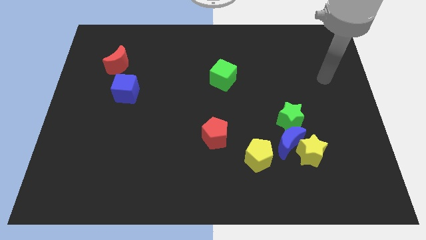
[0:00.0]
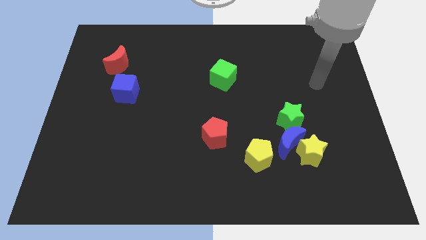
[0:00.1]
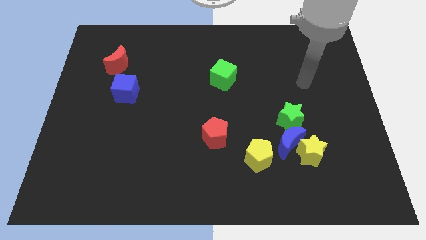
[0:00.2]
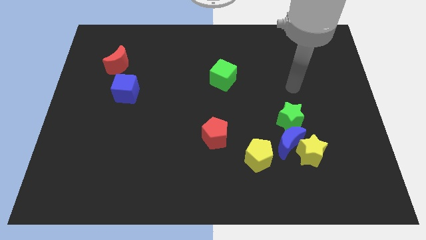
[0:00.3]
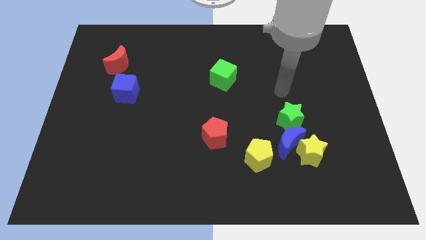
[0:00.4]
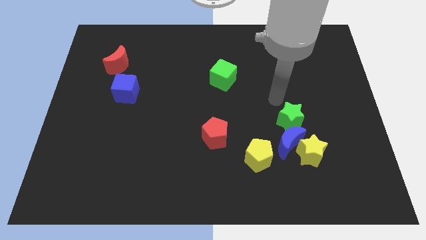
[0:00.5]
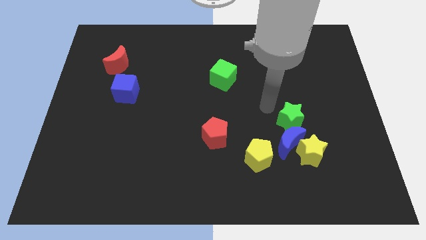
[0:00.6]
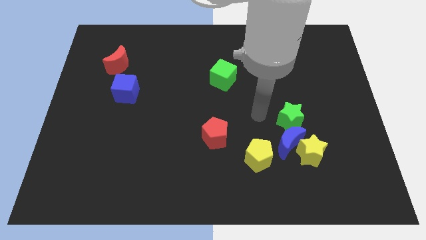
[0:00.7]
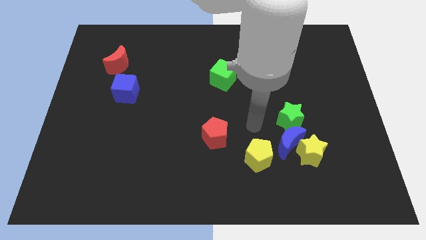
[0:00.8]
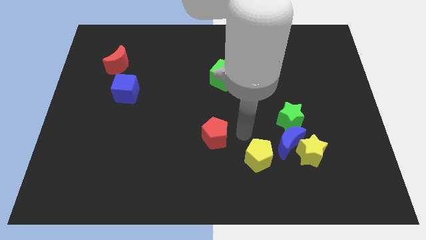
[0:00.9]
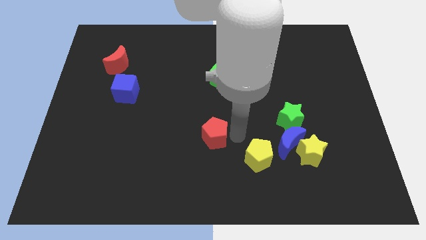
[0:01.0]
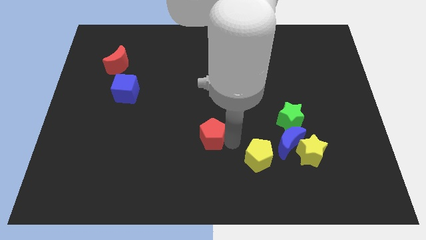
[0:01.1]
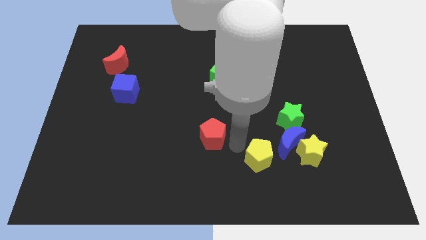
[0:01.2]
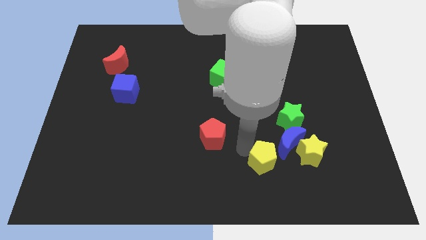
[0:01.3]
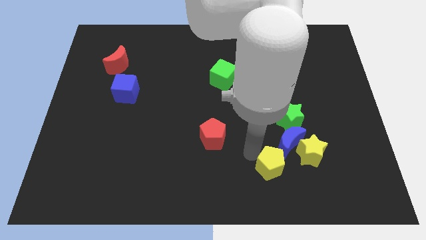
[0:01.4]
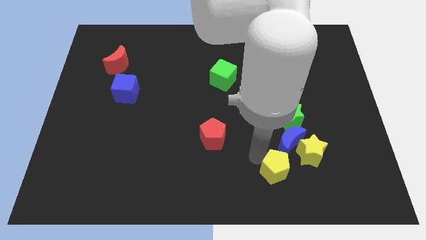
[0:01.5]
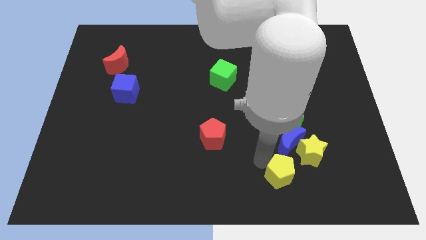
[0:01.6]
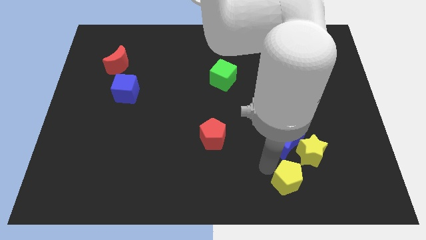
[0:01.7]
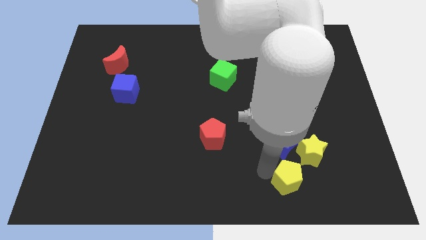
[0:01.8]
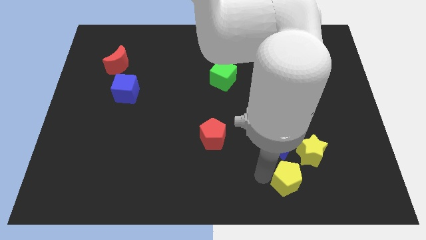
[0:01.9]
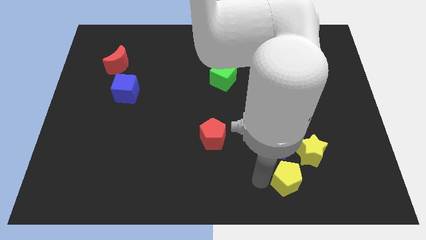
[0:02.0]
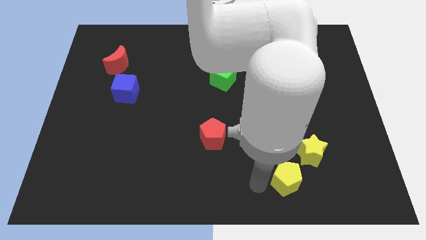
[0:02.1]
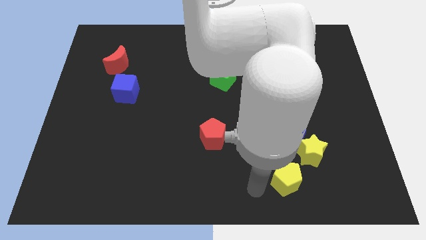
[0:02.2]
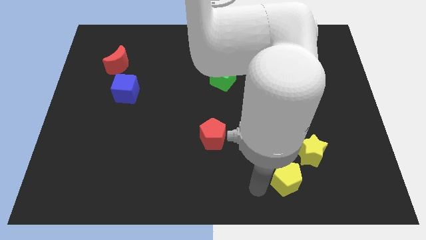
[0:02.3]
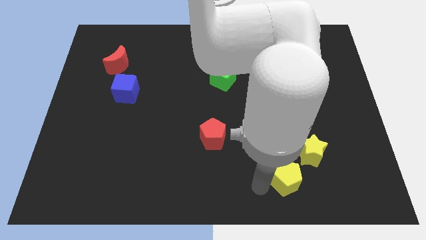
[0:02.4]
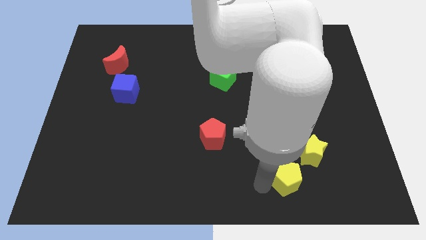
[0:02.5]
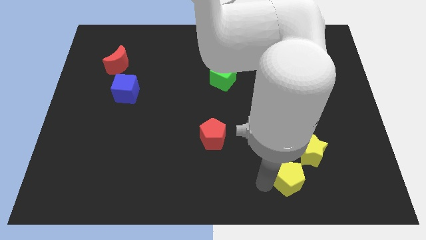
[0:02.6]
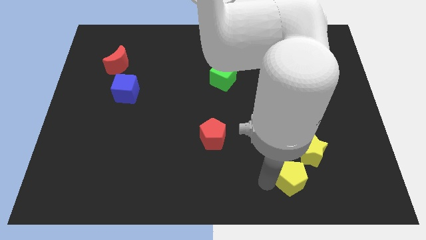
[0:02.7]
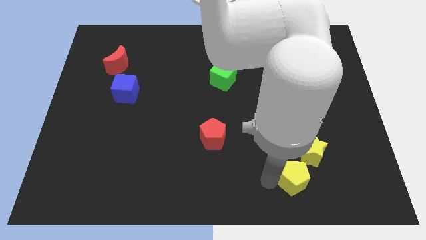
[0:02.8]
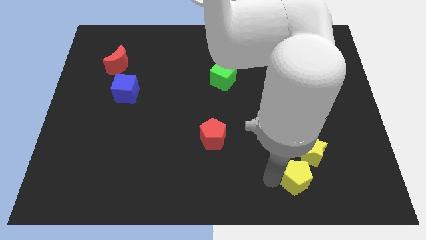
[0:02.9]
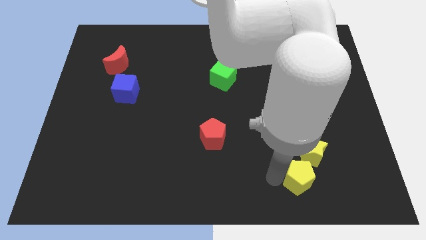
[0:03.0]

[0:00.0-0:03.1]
slightly move the yellow pentagon to the right

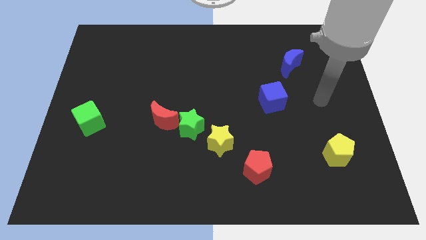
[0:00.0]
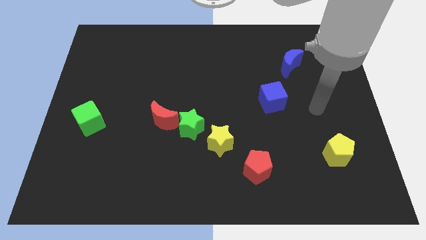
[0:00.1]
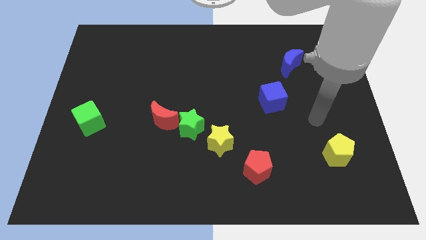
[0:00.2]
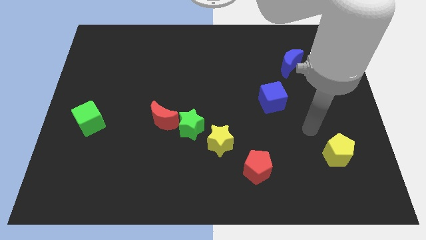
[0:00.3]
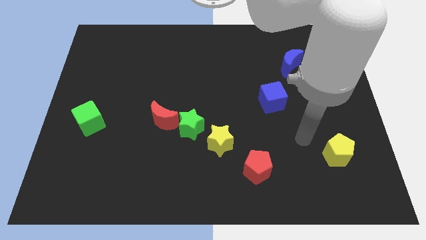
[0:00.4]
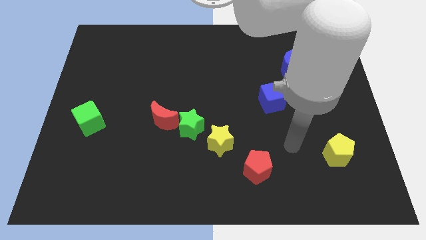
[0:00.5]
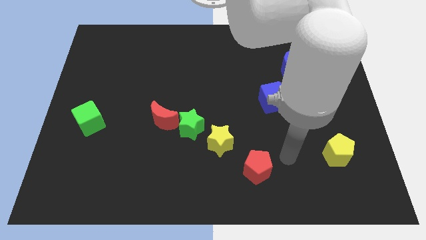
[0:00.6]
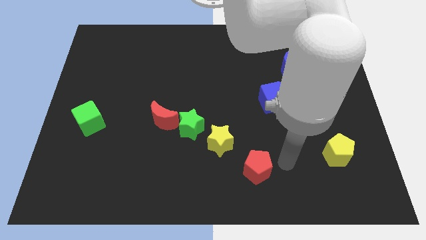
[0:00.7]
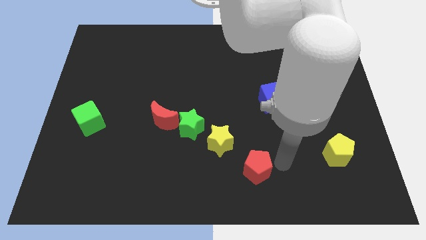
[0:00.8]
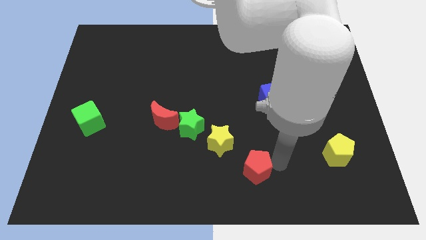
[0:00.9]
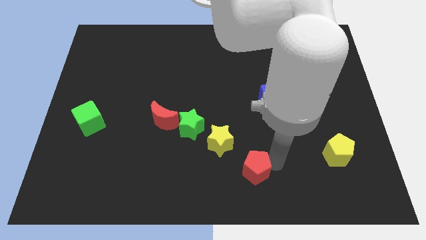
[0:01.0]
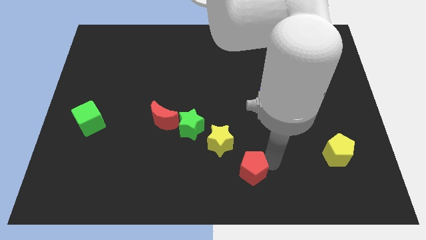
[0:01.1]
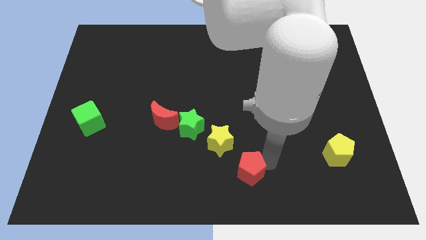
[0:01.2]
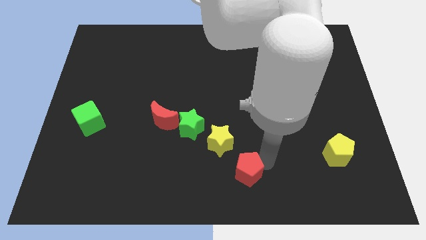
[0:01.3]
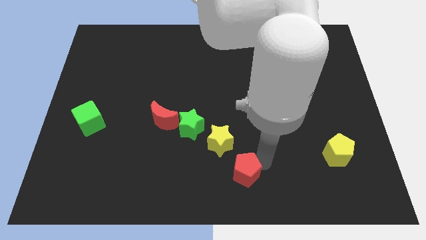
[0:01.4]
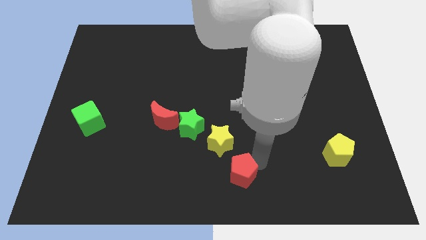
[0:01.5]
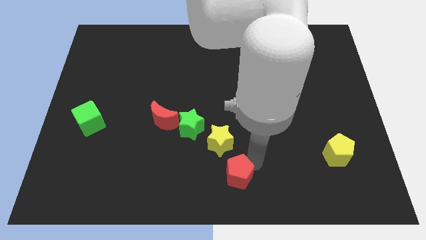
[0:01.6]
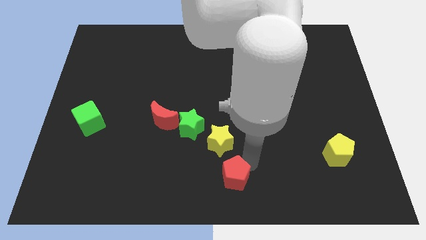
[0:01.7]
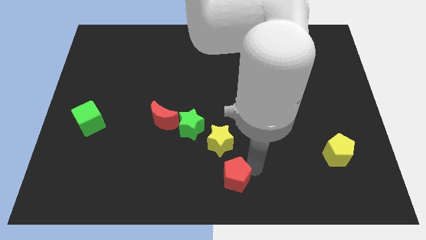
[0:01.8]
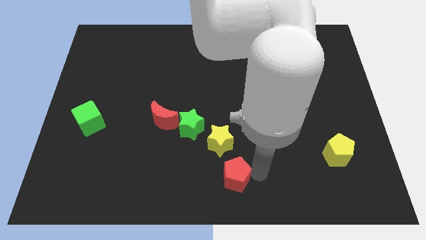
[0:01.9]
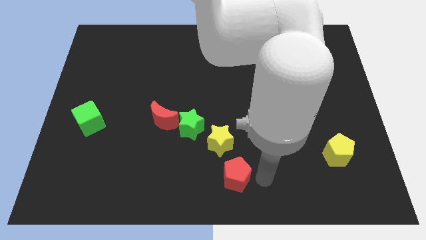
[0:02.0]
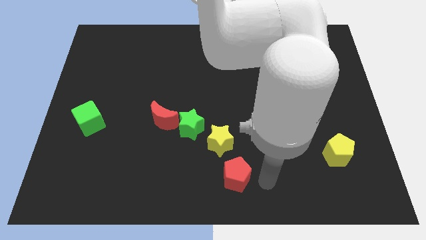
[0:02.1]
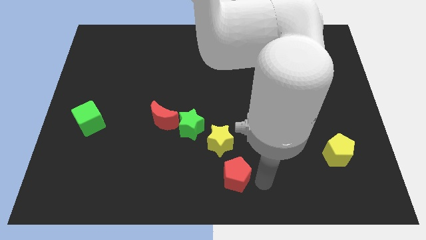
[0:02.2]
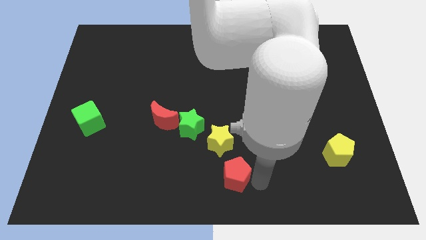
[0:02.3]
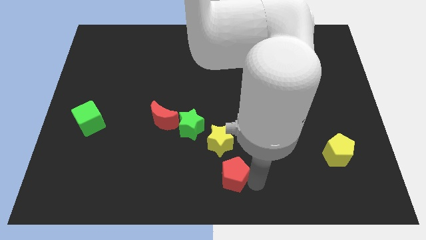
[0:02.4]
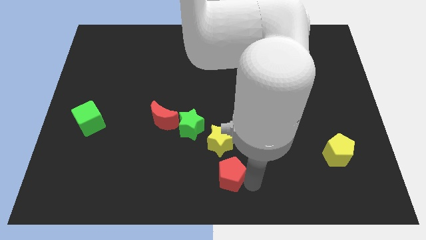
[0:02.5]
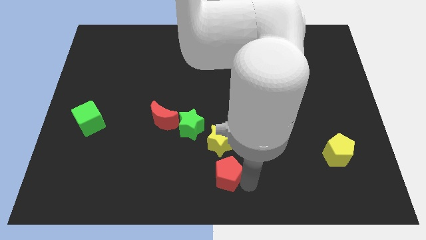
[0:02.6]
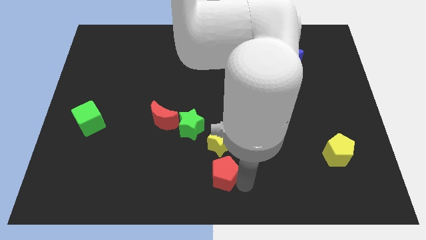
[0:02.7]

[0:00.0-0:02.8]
slightly slide the red pentagon left

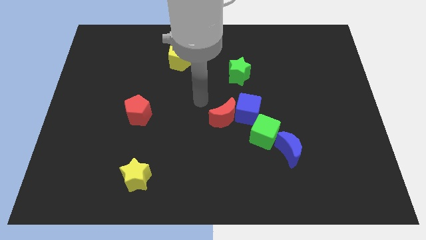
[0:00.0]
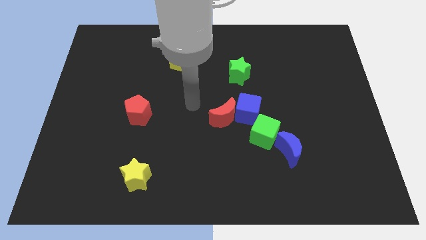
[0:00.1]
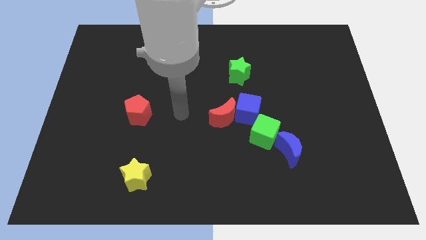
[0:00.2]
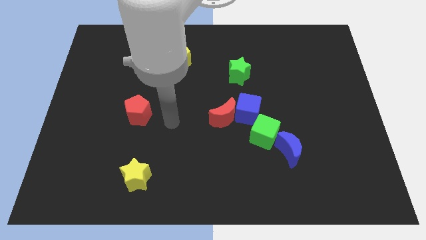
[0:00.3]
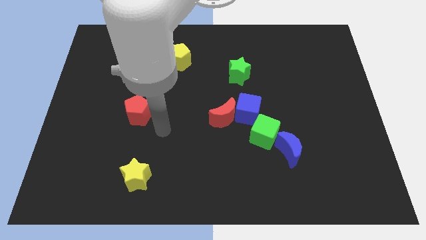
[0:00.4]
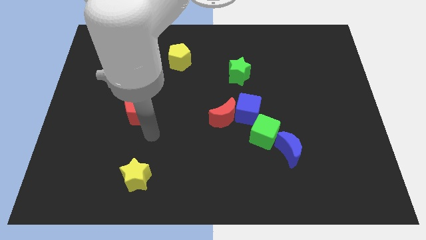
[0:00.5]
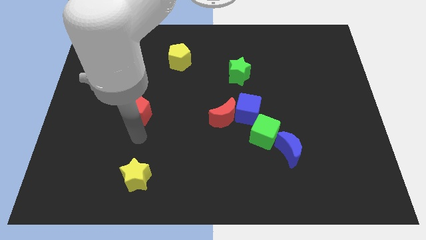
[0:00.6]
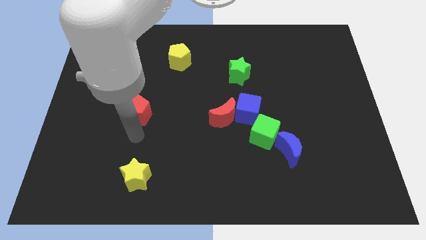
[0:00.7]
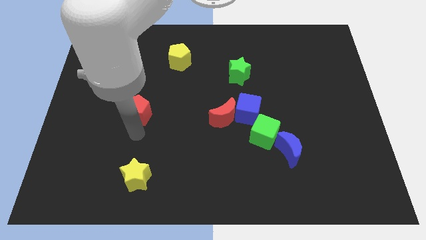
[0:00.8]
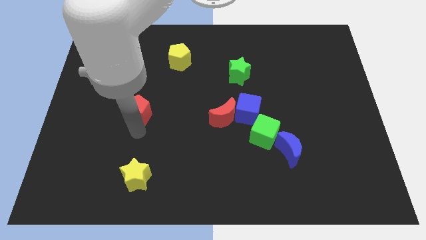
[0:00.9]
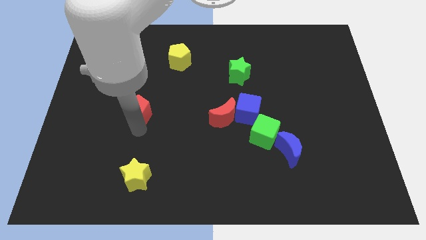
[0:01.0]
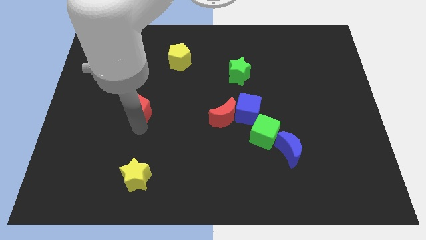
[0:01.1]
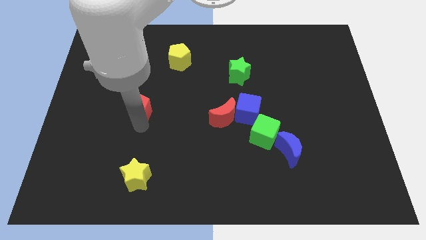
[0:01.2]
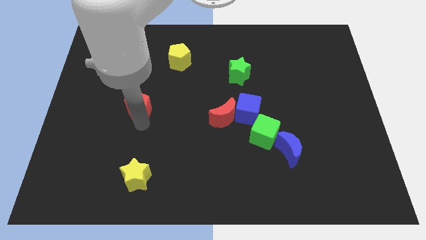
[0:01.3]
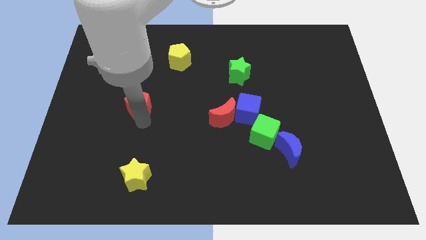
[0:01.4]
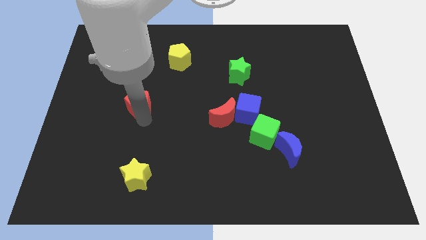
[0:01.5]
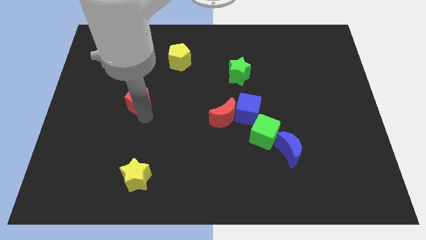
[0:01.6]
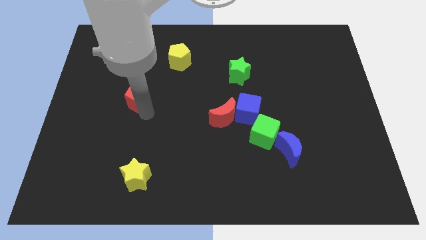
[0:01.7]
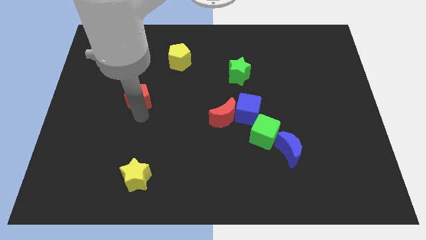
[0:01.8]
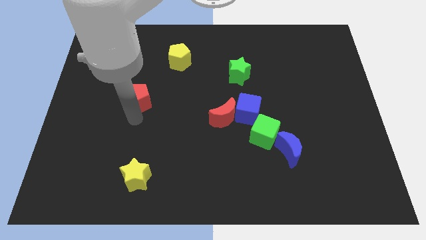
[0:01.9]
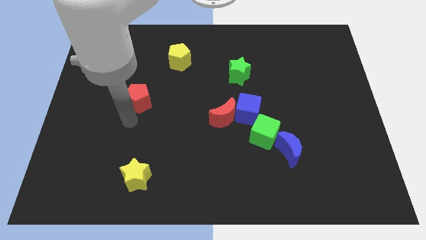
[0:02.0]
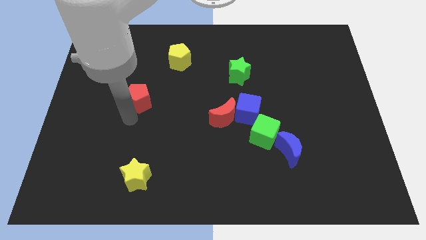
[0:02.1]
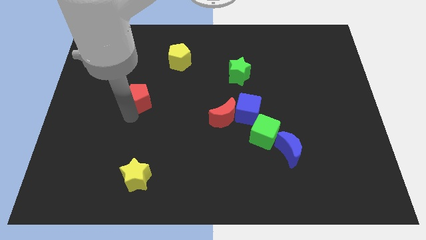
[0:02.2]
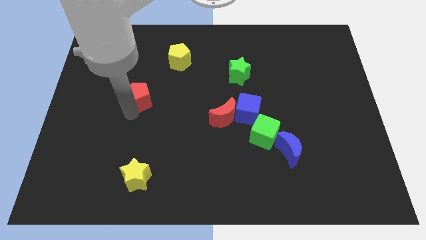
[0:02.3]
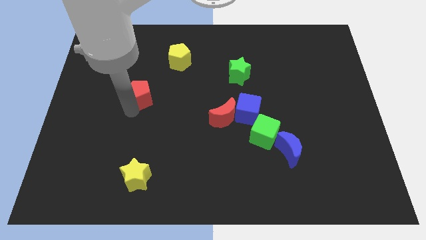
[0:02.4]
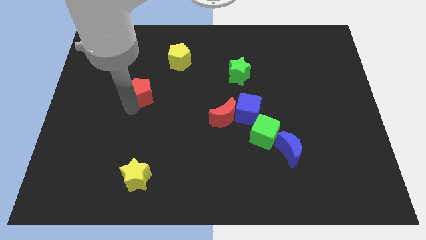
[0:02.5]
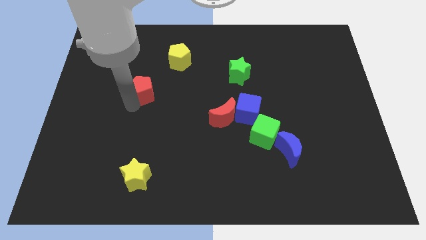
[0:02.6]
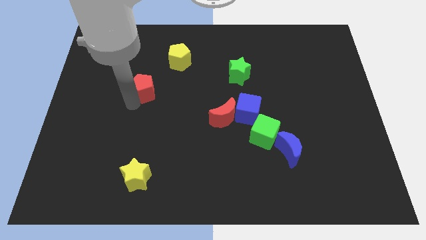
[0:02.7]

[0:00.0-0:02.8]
move the red pentagon upwards slightly
